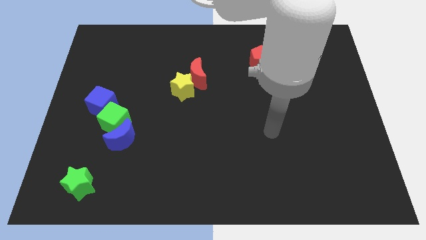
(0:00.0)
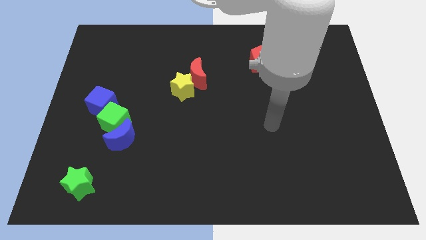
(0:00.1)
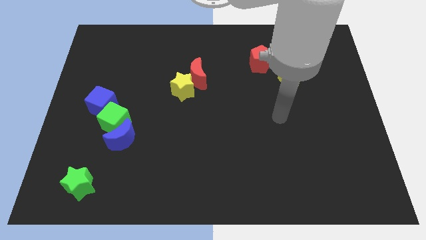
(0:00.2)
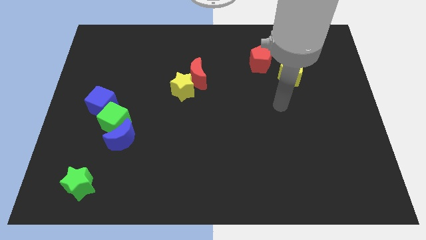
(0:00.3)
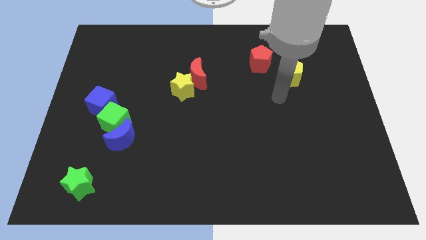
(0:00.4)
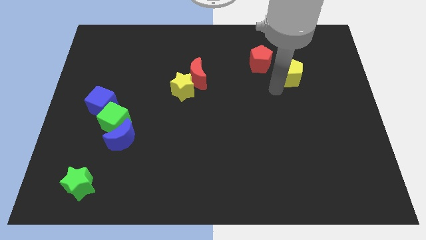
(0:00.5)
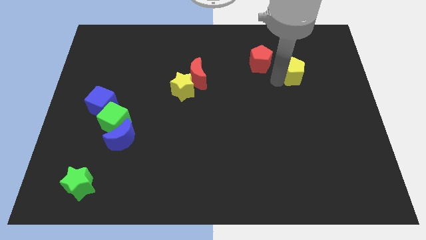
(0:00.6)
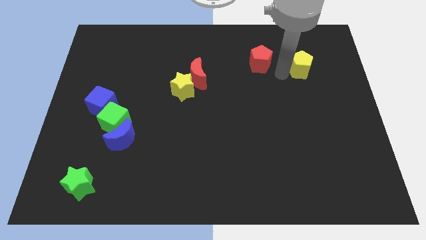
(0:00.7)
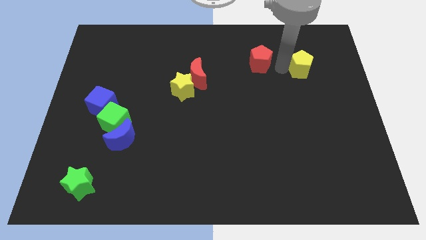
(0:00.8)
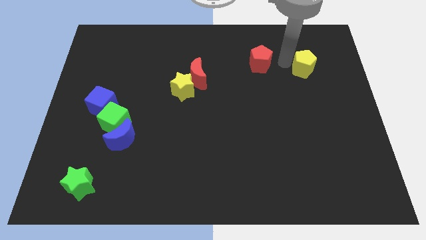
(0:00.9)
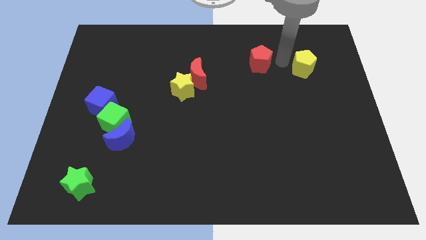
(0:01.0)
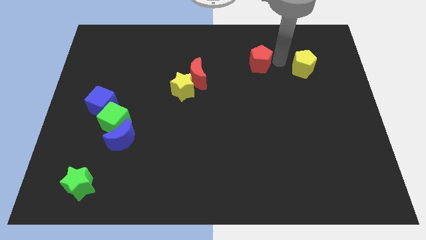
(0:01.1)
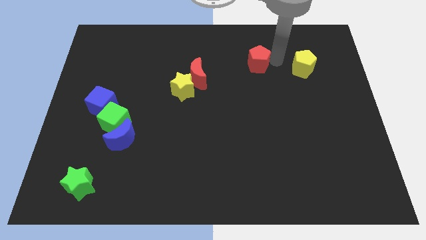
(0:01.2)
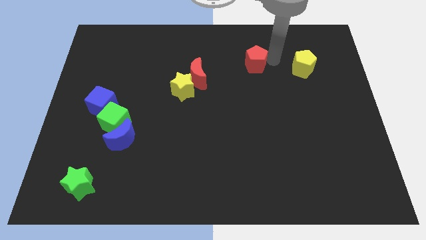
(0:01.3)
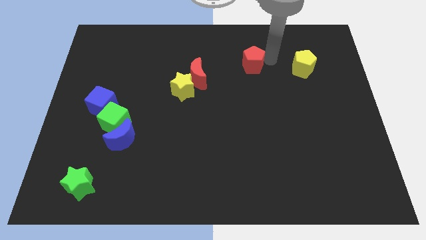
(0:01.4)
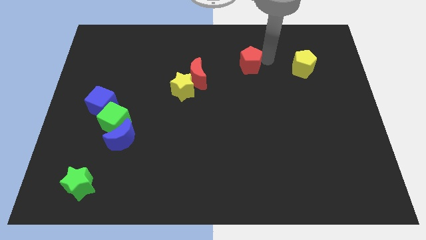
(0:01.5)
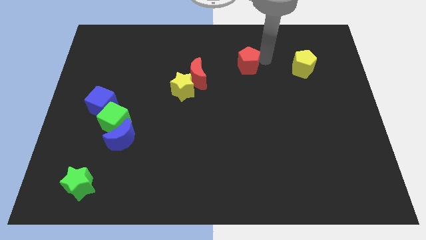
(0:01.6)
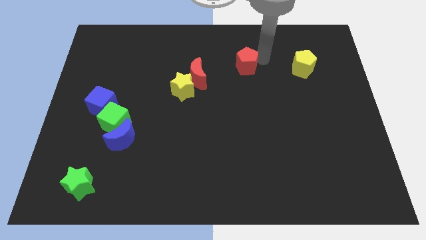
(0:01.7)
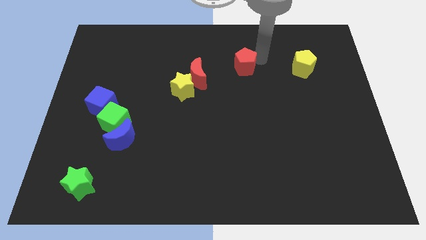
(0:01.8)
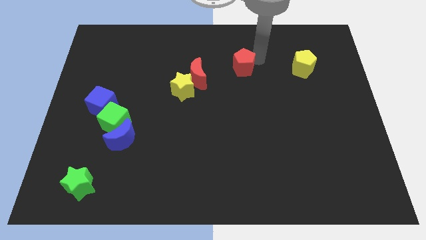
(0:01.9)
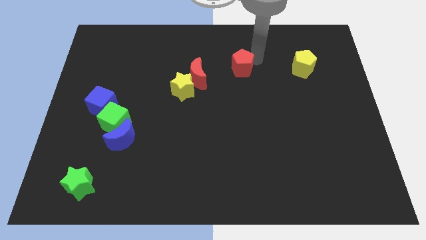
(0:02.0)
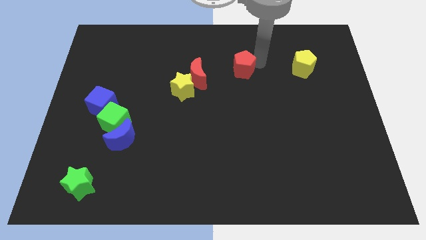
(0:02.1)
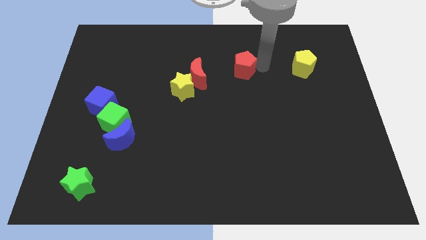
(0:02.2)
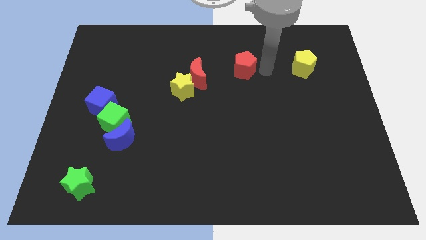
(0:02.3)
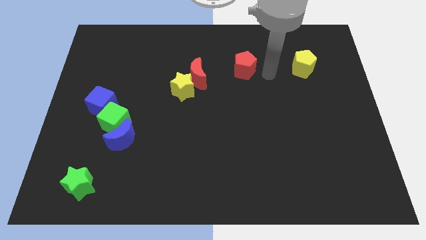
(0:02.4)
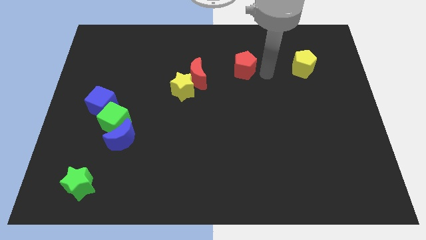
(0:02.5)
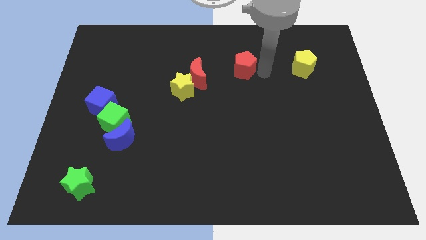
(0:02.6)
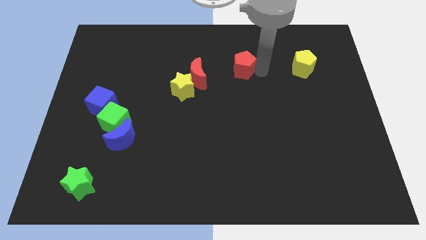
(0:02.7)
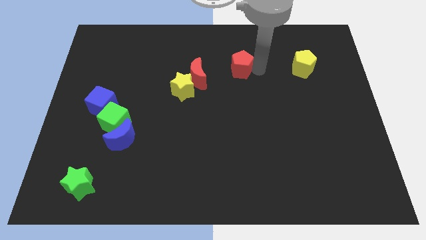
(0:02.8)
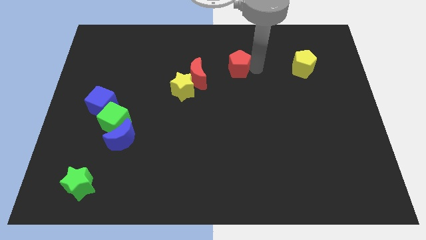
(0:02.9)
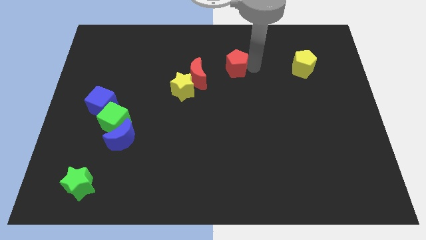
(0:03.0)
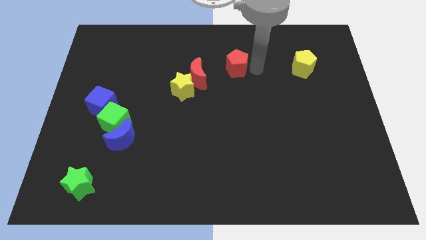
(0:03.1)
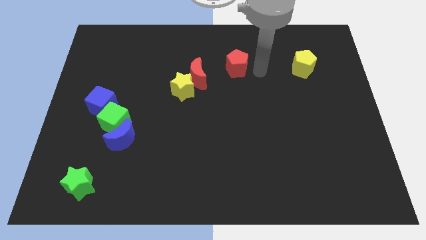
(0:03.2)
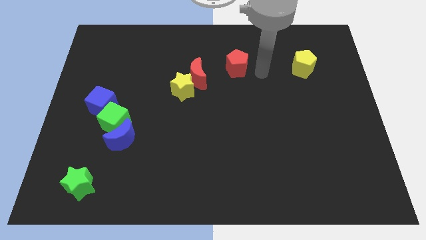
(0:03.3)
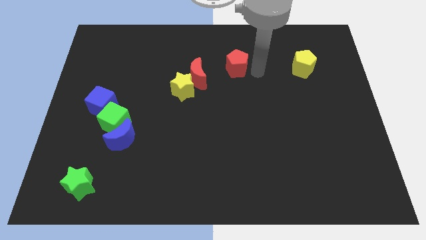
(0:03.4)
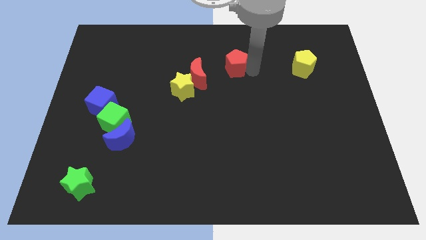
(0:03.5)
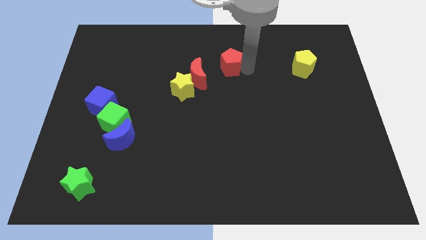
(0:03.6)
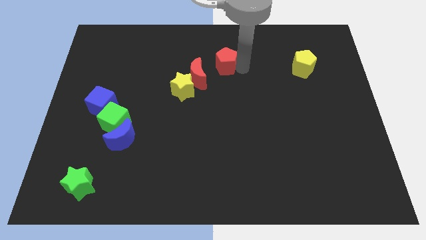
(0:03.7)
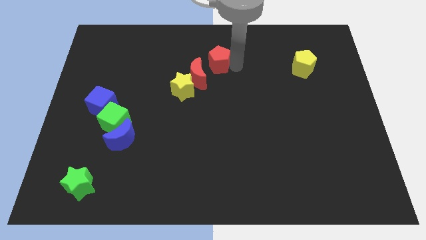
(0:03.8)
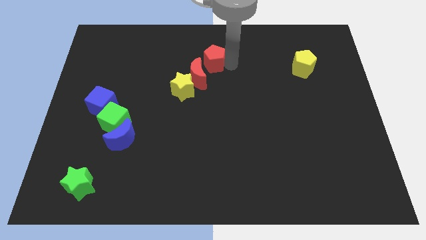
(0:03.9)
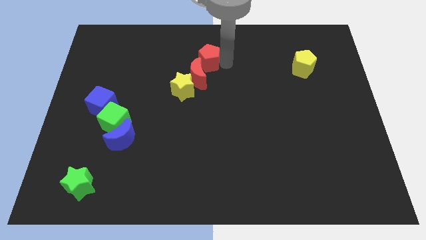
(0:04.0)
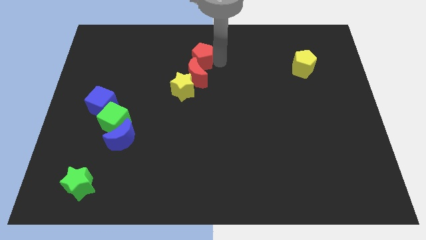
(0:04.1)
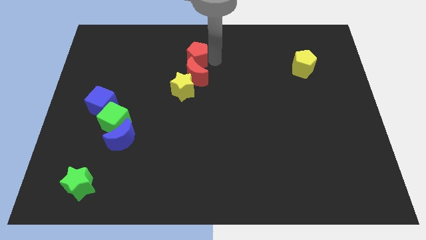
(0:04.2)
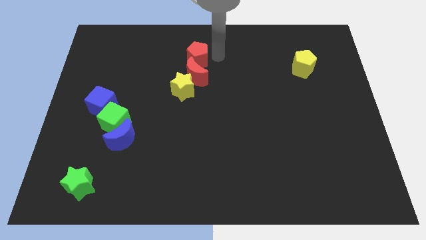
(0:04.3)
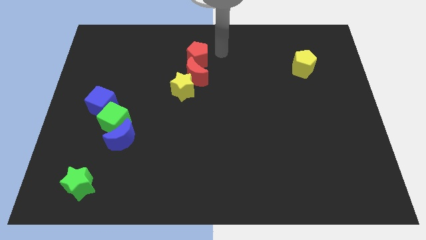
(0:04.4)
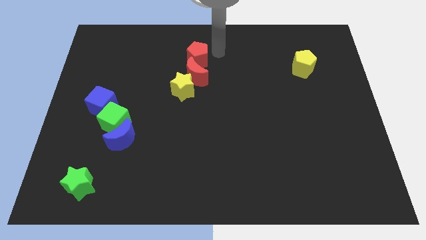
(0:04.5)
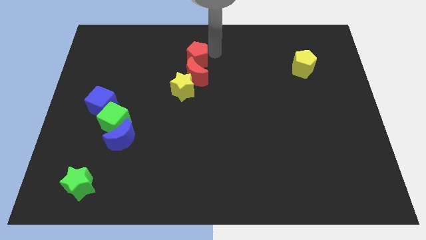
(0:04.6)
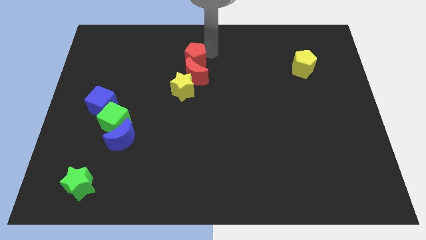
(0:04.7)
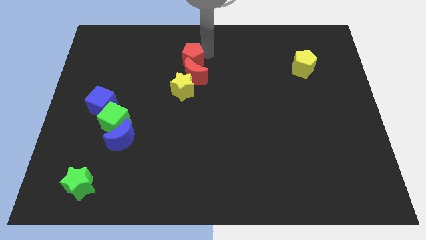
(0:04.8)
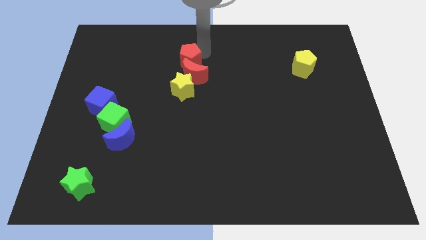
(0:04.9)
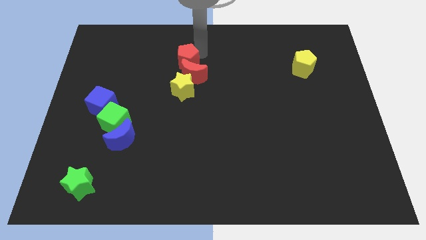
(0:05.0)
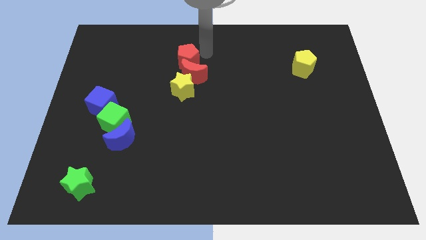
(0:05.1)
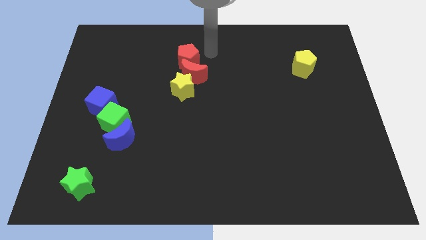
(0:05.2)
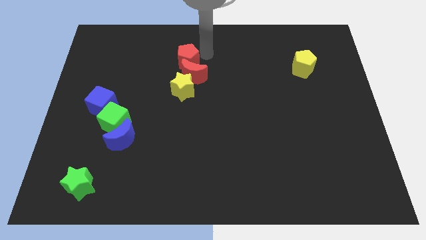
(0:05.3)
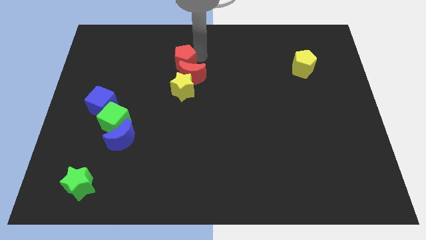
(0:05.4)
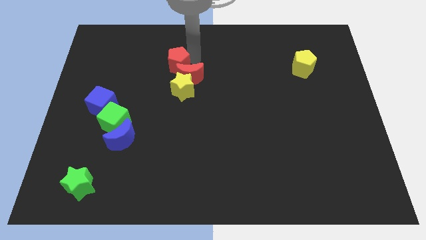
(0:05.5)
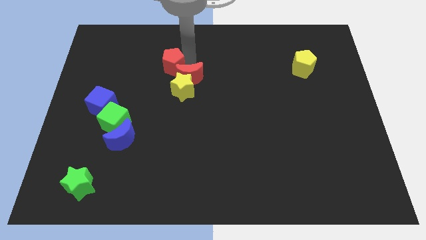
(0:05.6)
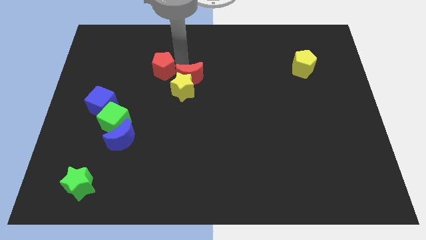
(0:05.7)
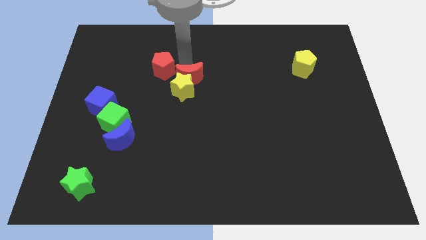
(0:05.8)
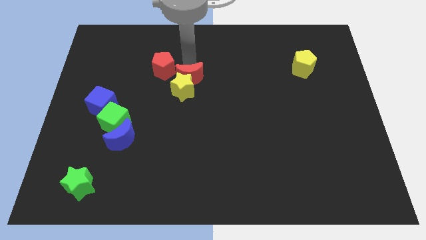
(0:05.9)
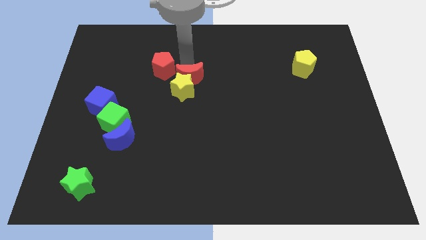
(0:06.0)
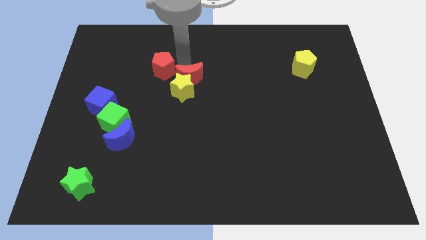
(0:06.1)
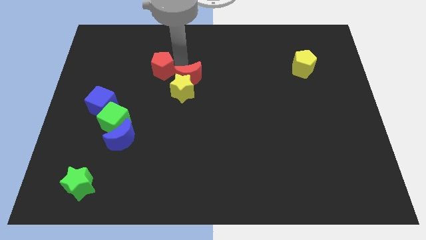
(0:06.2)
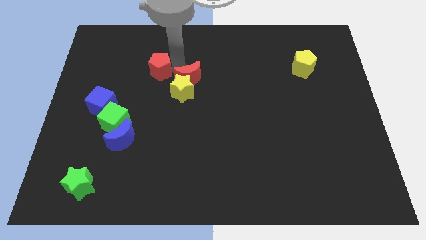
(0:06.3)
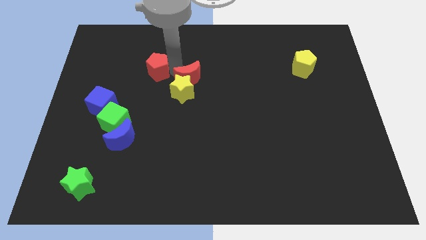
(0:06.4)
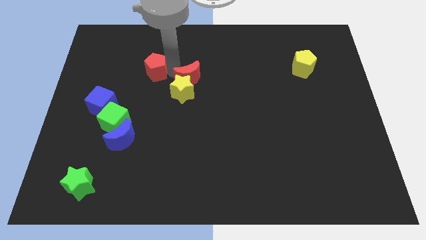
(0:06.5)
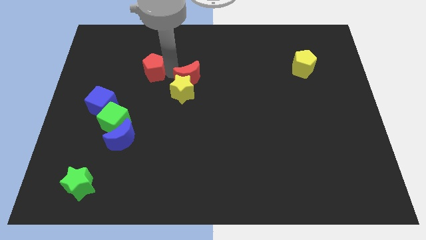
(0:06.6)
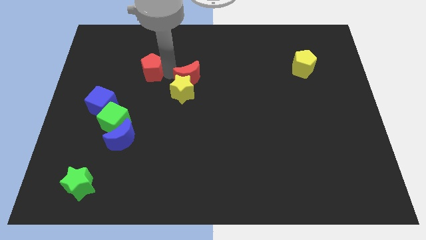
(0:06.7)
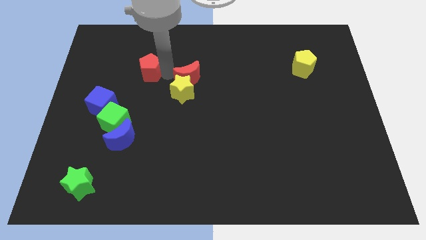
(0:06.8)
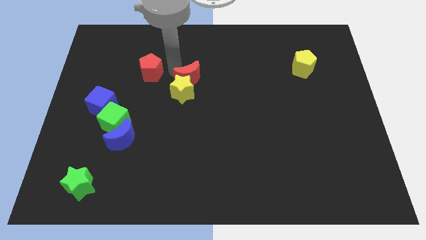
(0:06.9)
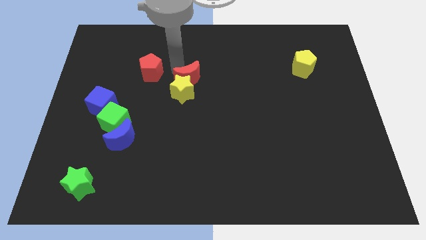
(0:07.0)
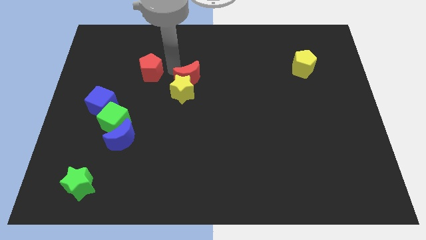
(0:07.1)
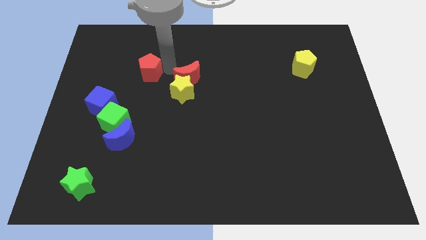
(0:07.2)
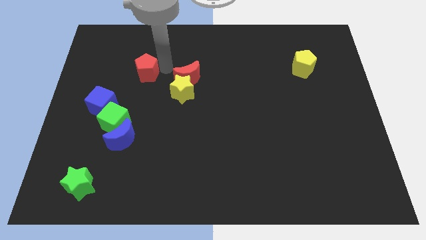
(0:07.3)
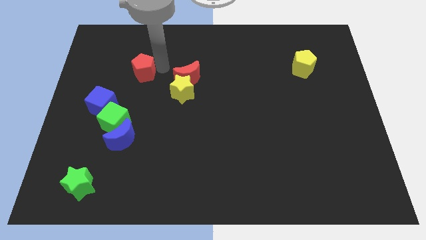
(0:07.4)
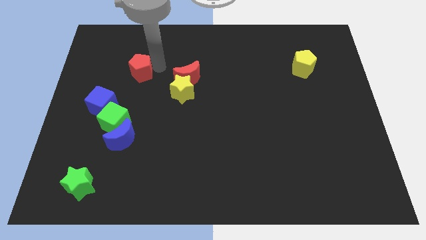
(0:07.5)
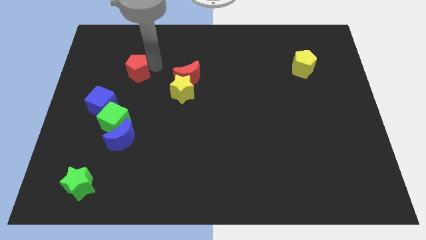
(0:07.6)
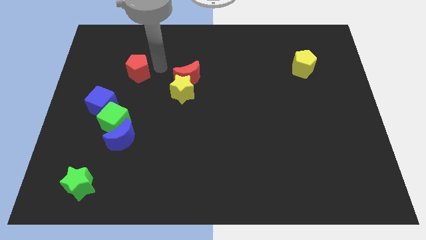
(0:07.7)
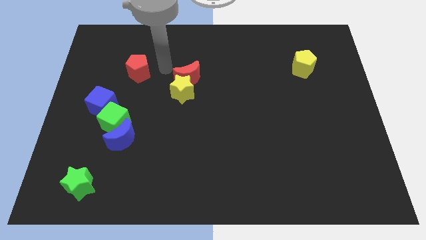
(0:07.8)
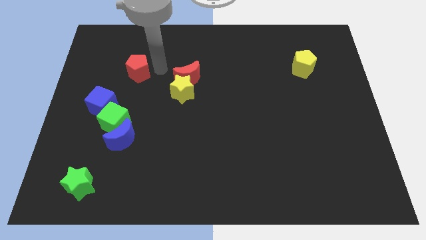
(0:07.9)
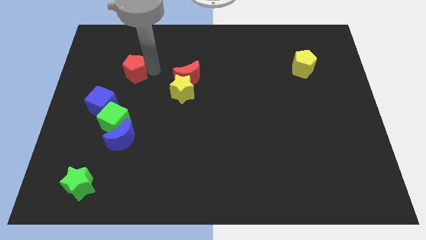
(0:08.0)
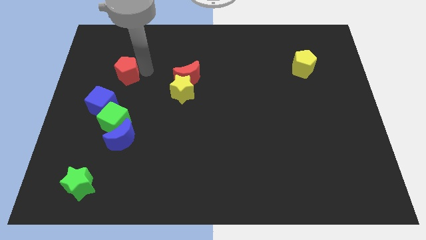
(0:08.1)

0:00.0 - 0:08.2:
put the red pentagon to the top side of the blue cube

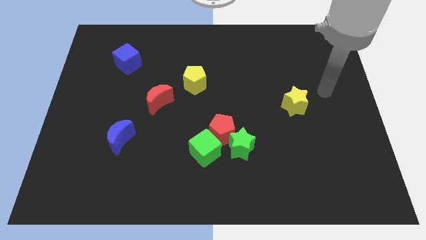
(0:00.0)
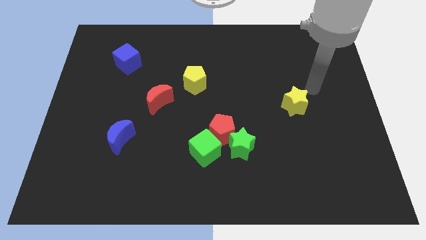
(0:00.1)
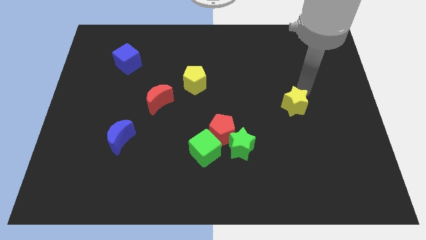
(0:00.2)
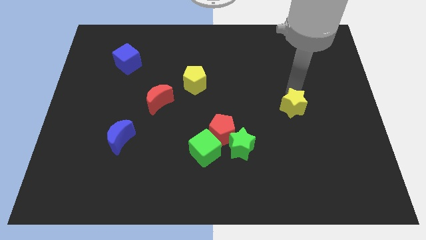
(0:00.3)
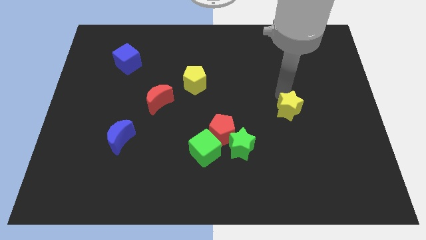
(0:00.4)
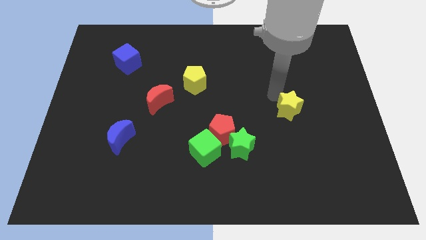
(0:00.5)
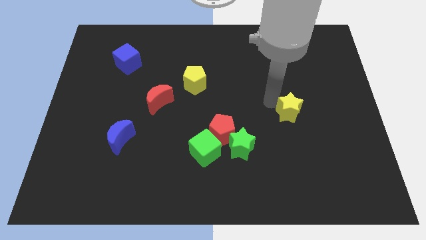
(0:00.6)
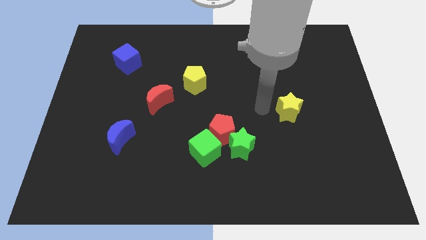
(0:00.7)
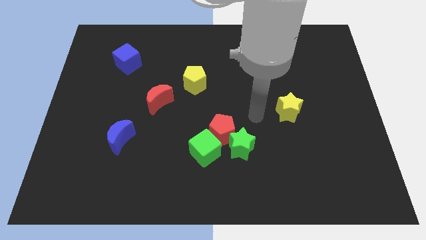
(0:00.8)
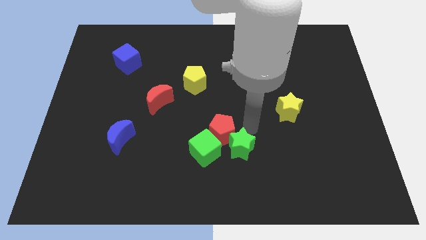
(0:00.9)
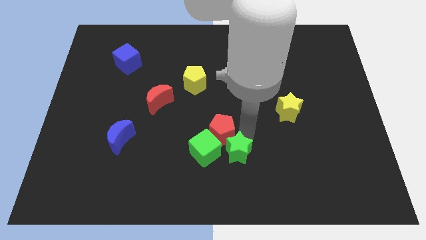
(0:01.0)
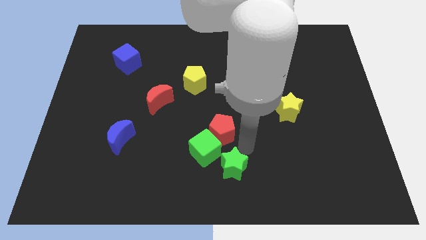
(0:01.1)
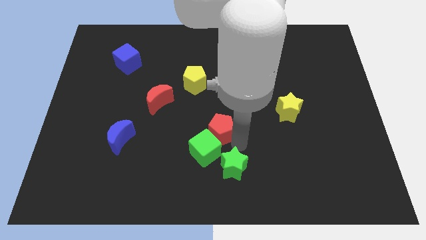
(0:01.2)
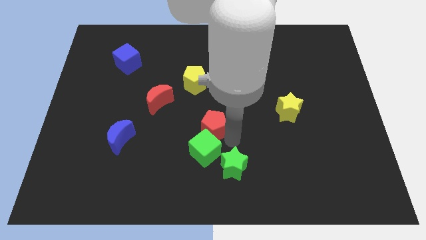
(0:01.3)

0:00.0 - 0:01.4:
slide the red pentagon to the bottom side of the yellow pentagon
